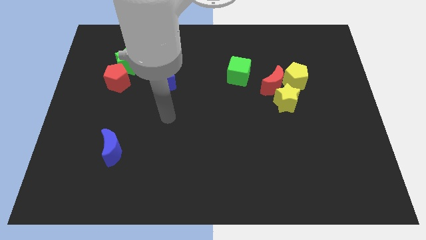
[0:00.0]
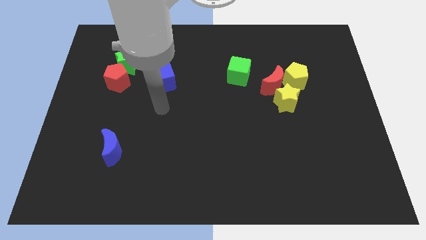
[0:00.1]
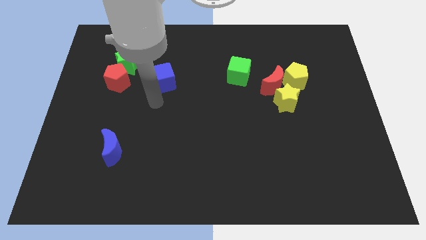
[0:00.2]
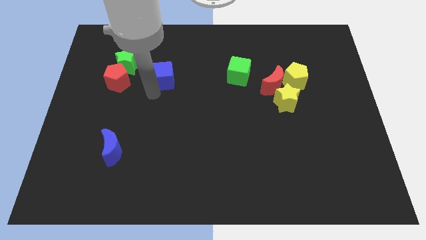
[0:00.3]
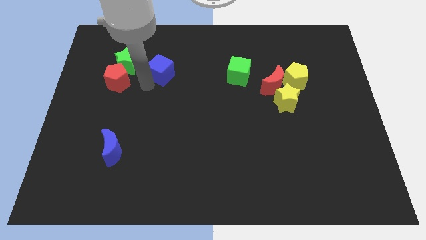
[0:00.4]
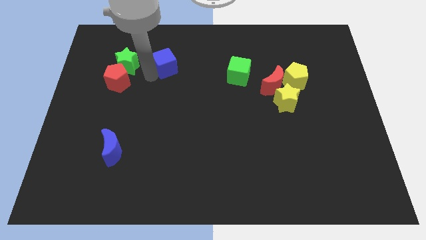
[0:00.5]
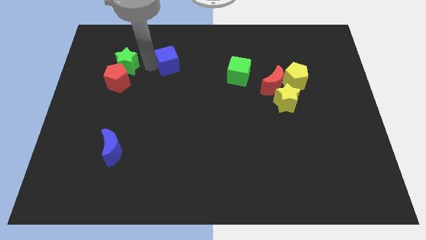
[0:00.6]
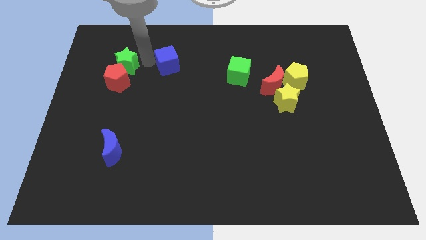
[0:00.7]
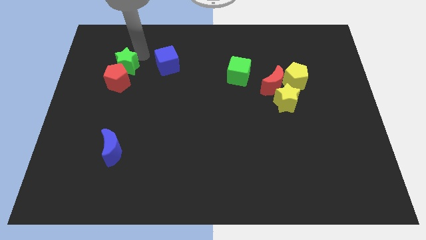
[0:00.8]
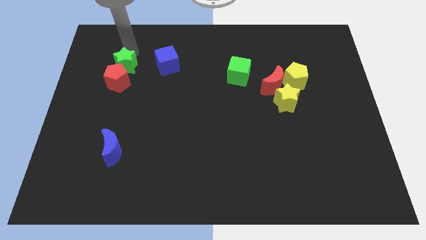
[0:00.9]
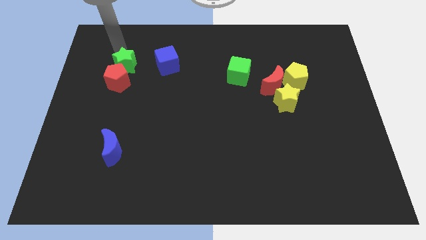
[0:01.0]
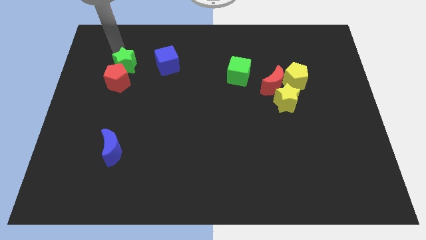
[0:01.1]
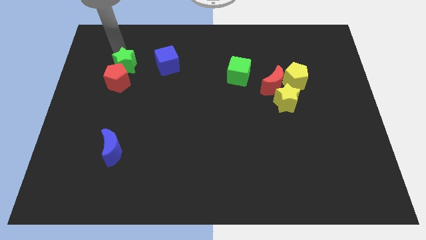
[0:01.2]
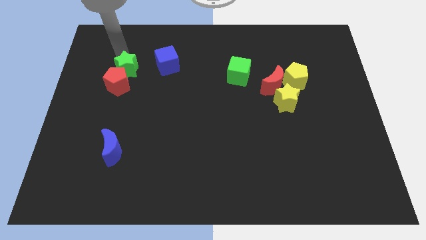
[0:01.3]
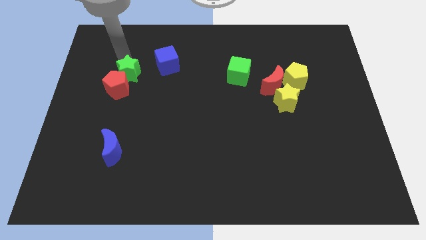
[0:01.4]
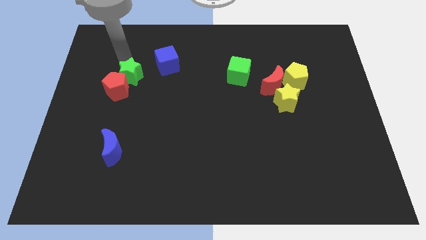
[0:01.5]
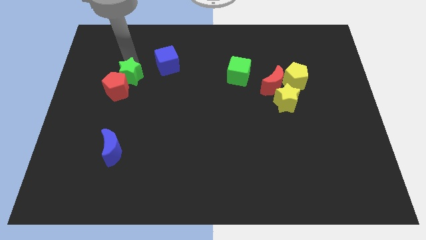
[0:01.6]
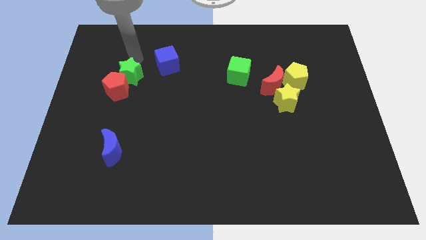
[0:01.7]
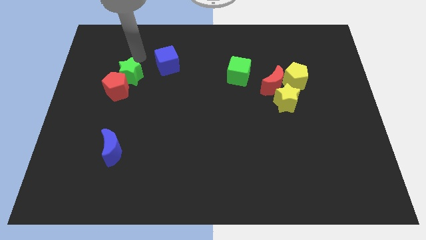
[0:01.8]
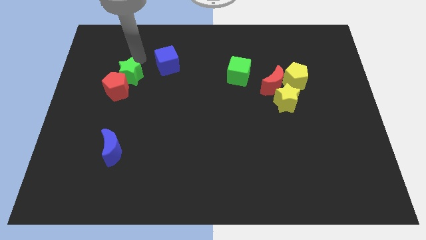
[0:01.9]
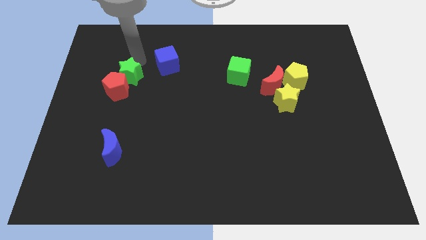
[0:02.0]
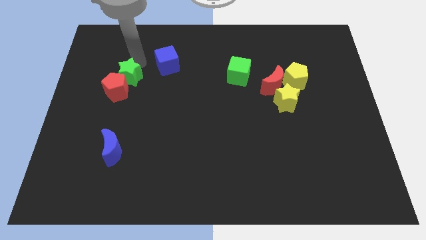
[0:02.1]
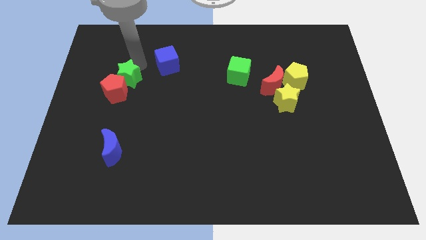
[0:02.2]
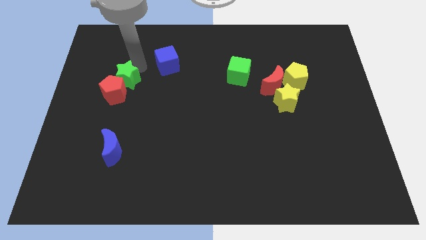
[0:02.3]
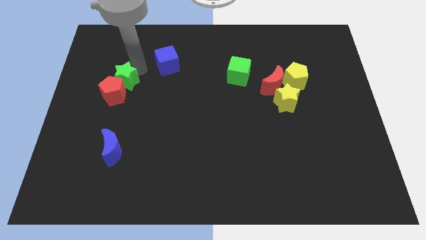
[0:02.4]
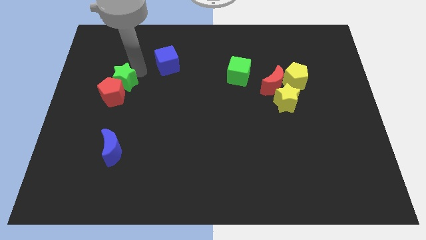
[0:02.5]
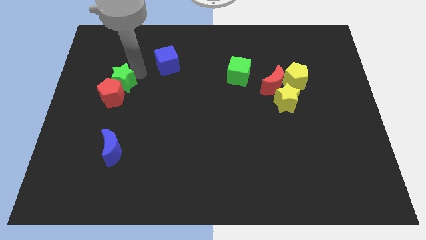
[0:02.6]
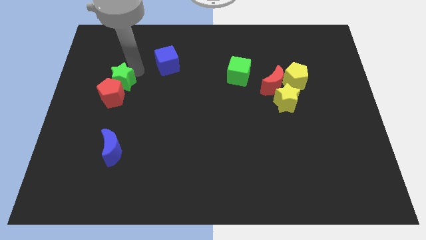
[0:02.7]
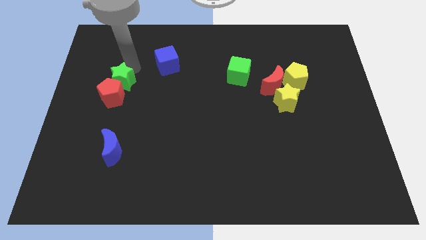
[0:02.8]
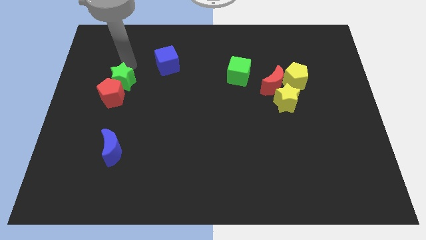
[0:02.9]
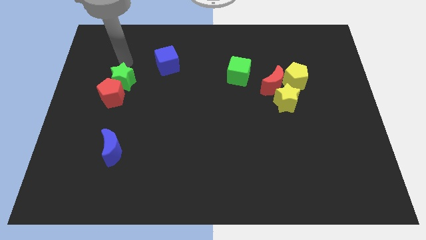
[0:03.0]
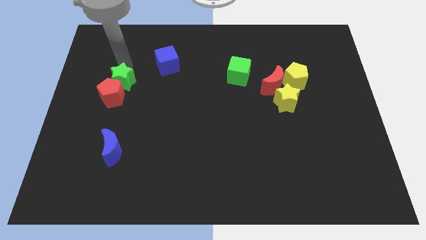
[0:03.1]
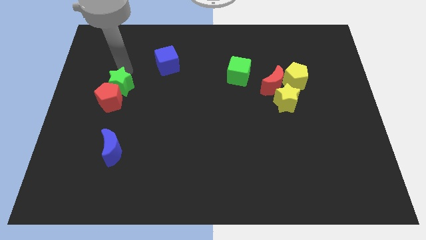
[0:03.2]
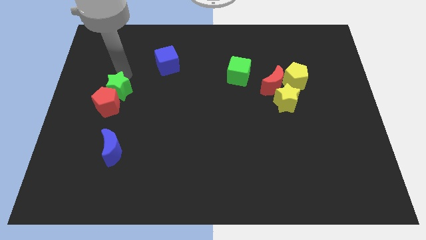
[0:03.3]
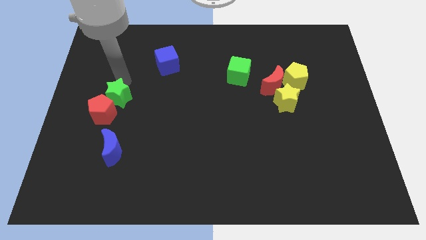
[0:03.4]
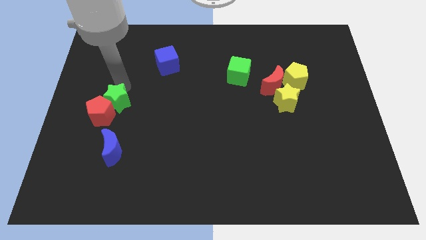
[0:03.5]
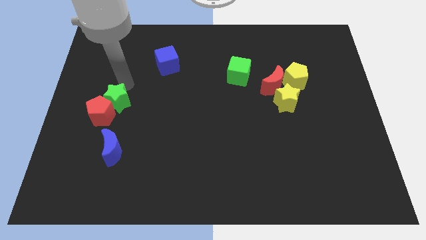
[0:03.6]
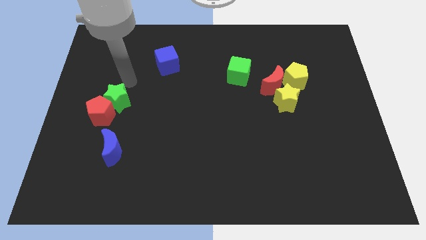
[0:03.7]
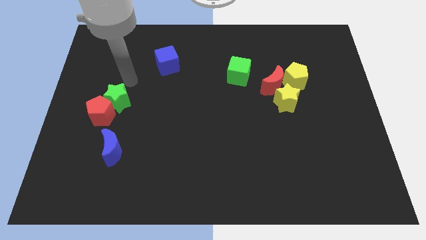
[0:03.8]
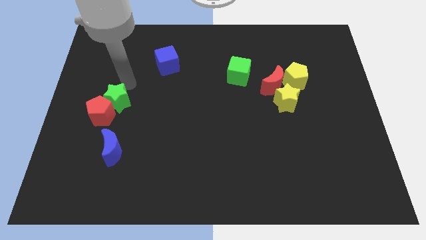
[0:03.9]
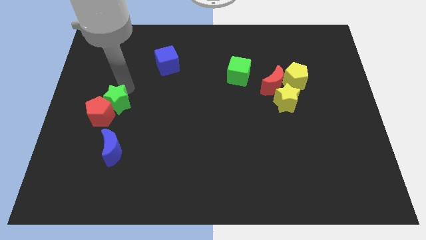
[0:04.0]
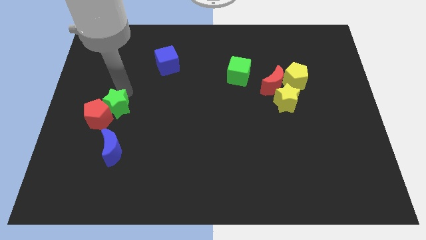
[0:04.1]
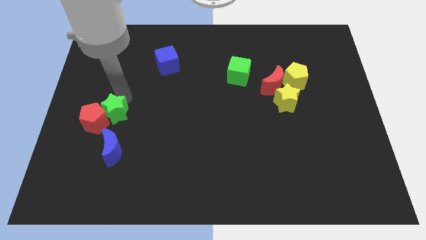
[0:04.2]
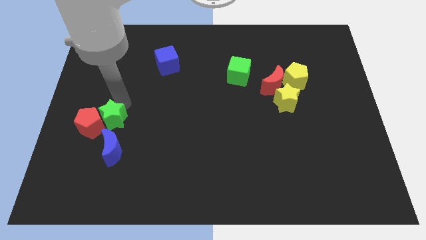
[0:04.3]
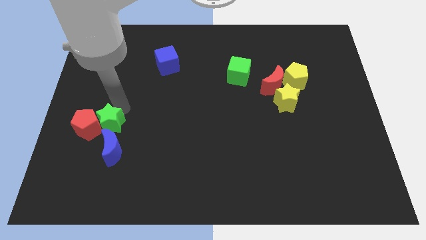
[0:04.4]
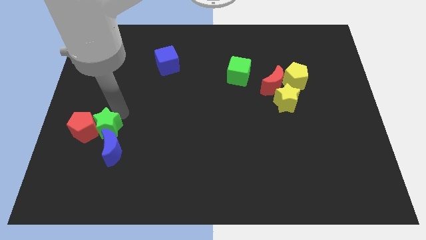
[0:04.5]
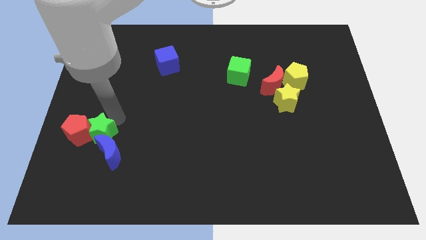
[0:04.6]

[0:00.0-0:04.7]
move the green star downwards

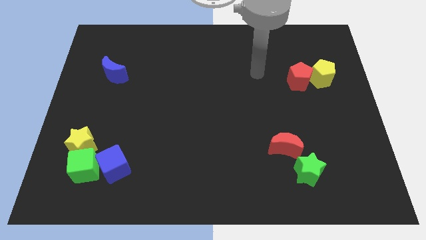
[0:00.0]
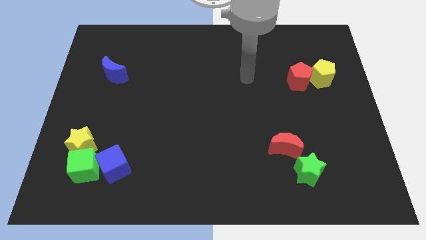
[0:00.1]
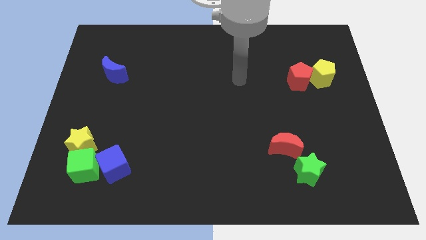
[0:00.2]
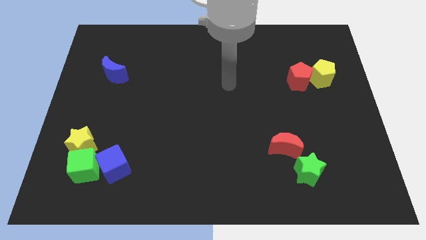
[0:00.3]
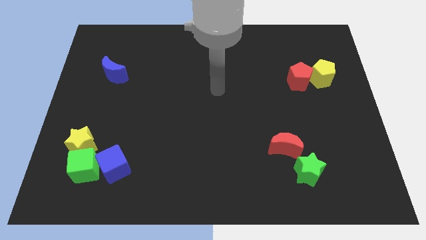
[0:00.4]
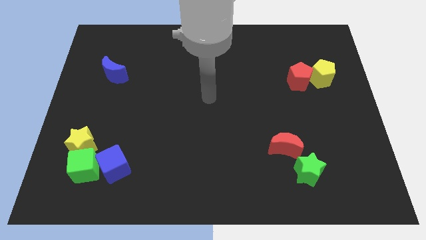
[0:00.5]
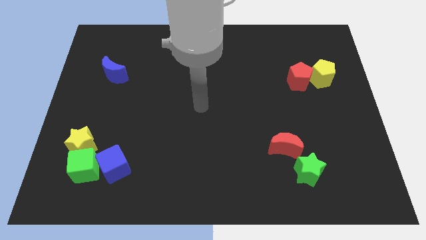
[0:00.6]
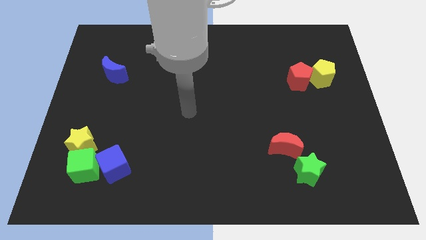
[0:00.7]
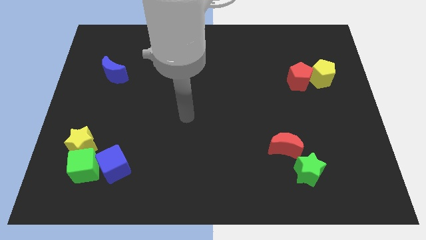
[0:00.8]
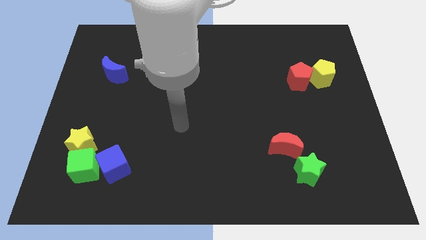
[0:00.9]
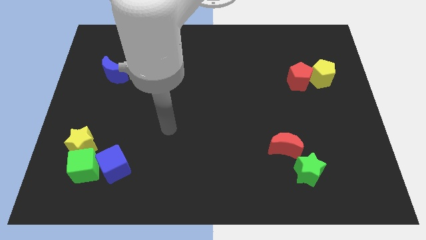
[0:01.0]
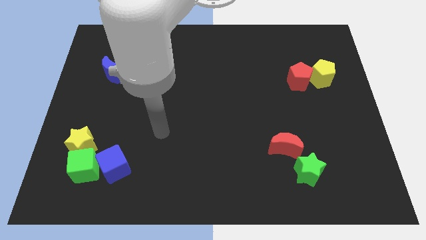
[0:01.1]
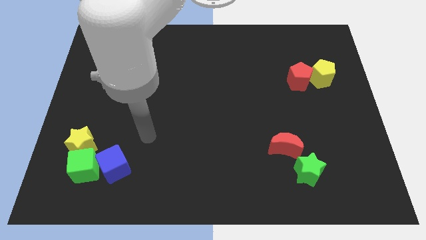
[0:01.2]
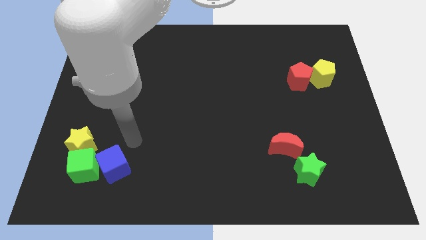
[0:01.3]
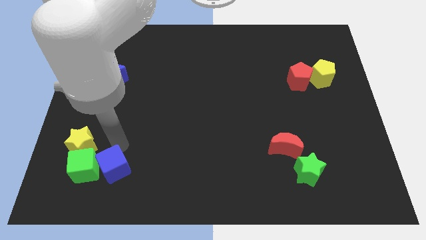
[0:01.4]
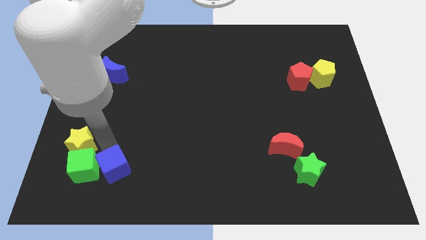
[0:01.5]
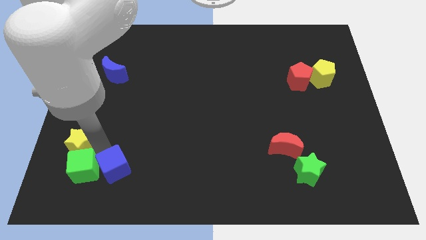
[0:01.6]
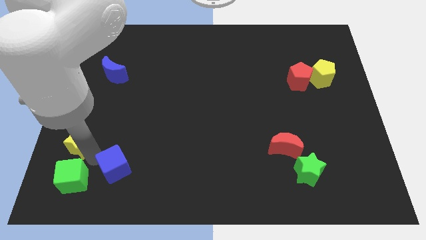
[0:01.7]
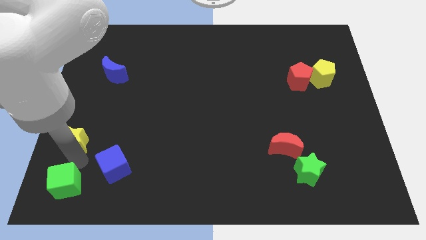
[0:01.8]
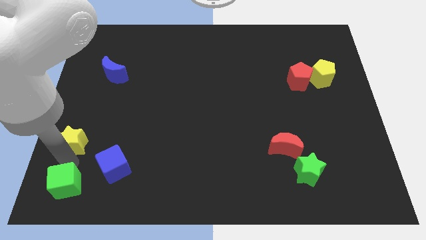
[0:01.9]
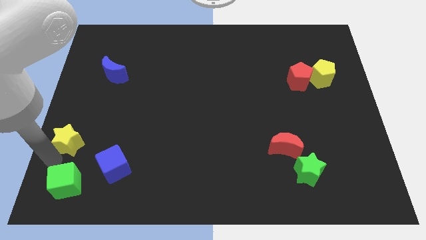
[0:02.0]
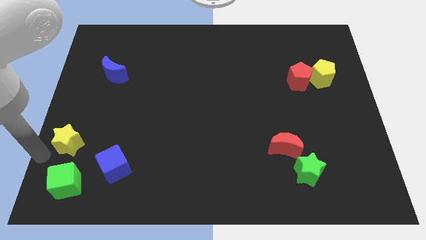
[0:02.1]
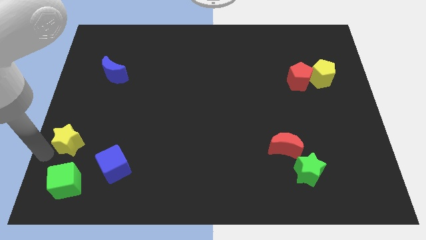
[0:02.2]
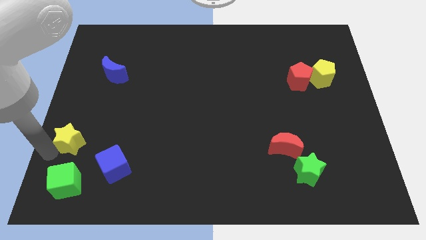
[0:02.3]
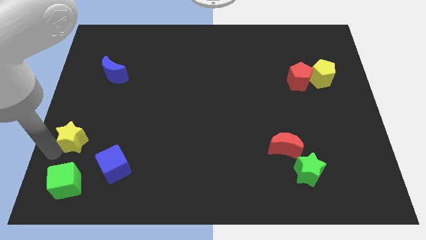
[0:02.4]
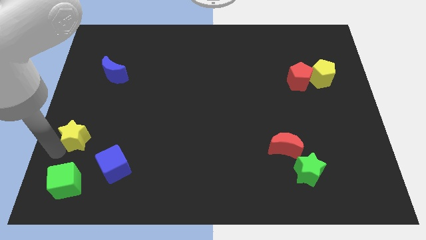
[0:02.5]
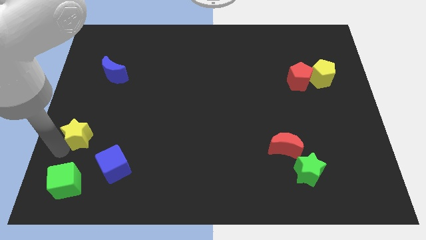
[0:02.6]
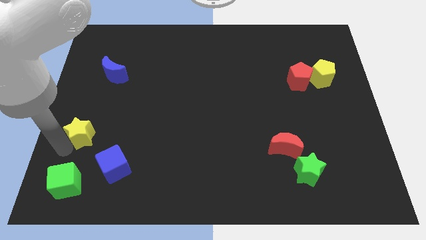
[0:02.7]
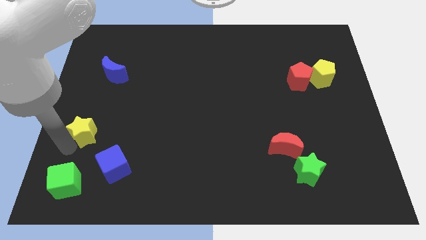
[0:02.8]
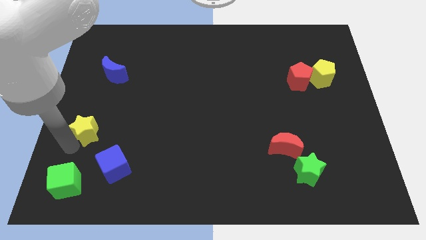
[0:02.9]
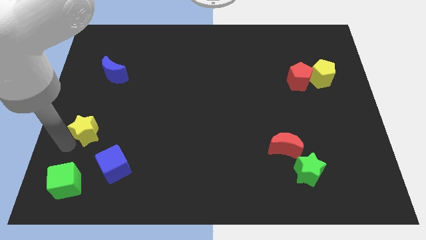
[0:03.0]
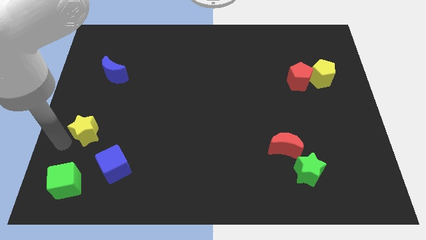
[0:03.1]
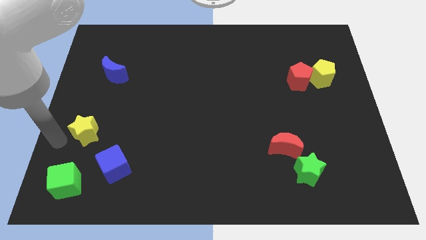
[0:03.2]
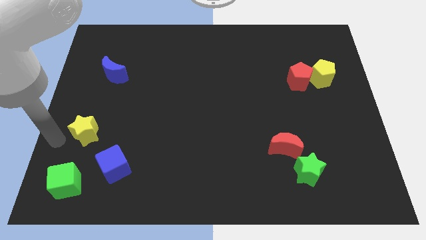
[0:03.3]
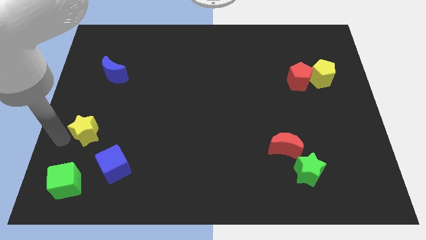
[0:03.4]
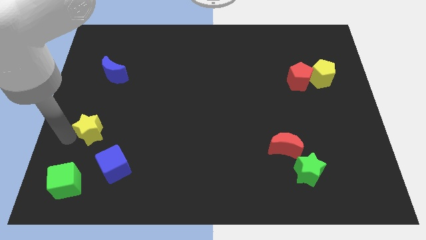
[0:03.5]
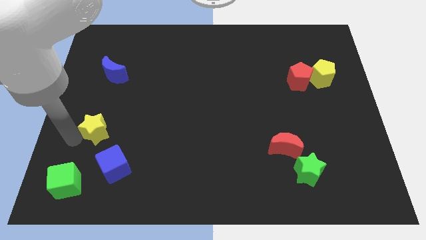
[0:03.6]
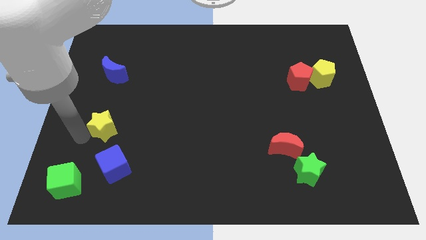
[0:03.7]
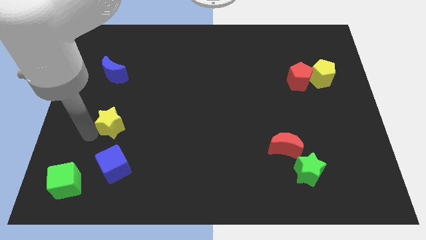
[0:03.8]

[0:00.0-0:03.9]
push the yellow star a little upwards and to the right diagonally
